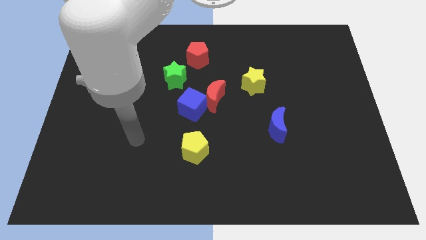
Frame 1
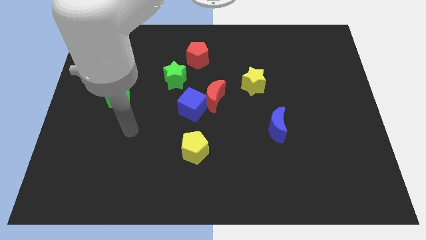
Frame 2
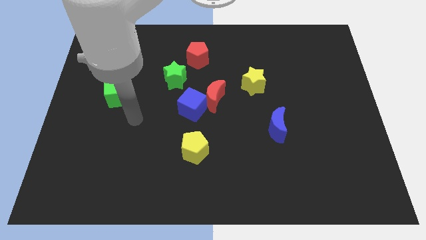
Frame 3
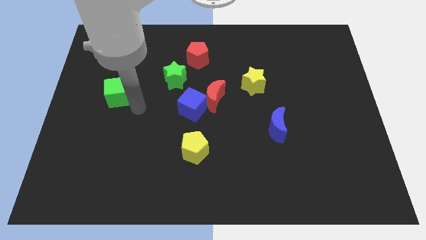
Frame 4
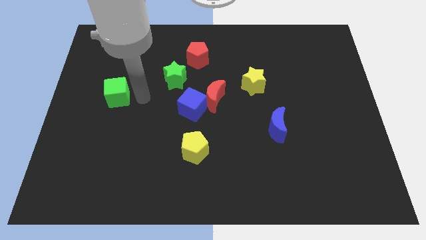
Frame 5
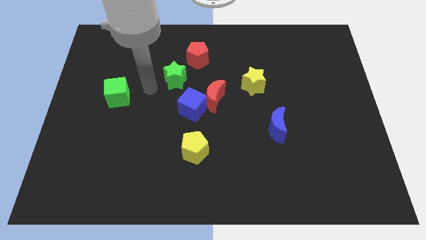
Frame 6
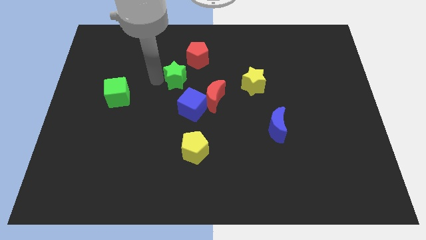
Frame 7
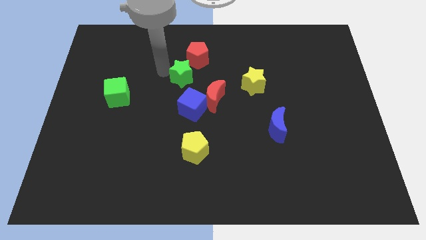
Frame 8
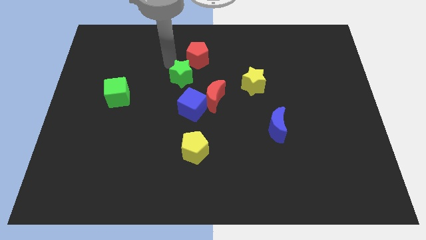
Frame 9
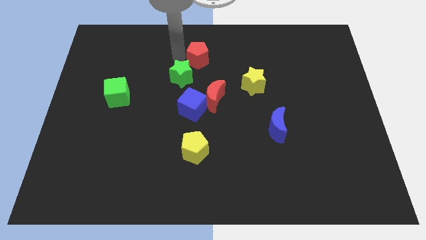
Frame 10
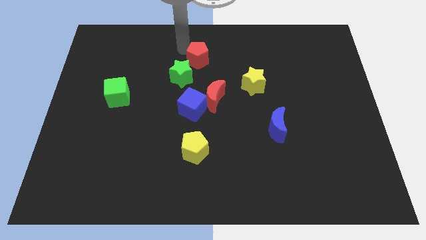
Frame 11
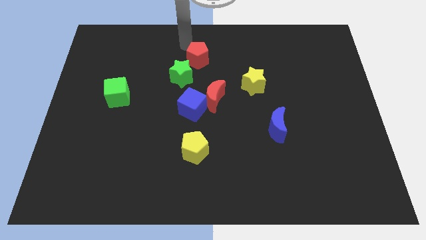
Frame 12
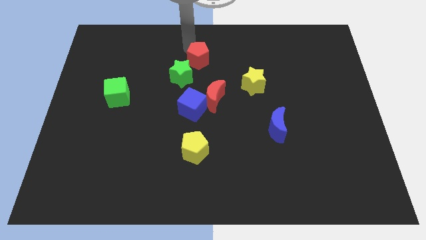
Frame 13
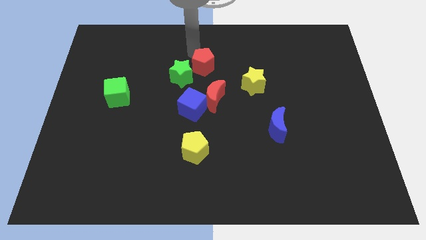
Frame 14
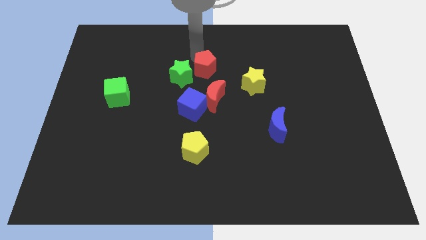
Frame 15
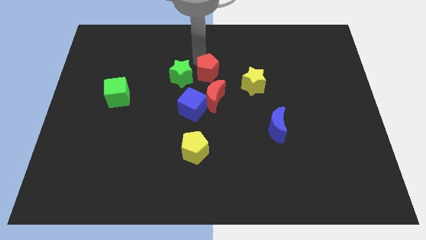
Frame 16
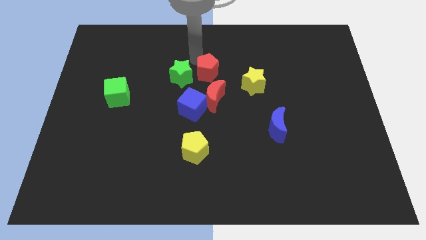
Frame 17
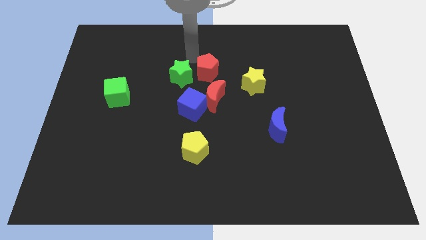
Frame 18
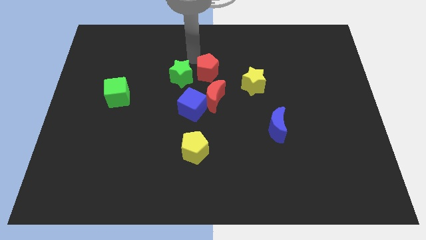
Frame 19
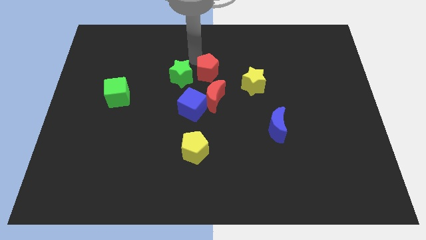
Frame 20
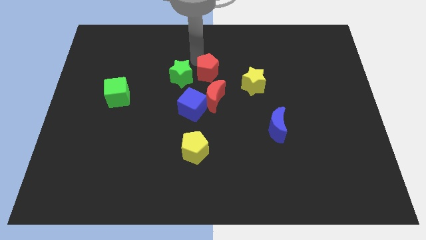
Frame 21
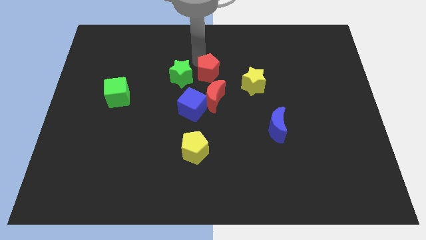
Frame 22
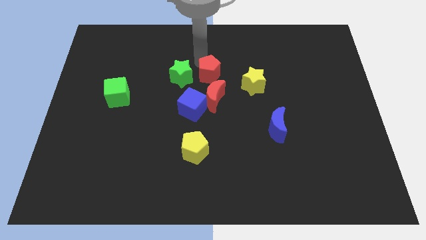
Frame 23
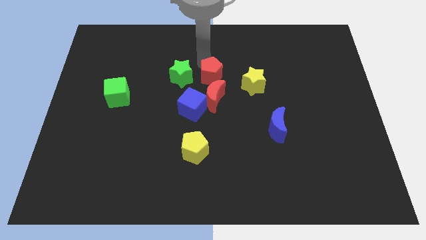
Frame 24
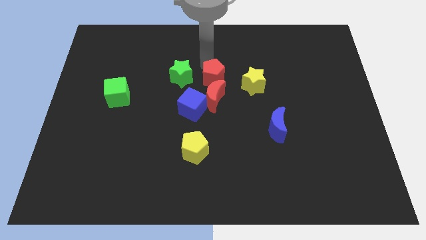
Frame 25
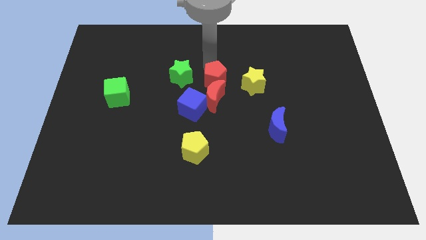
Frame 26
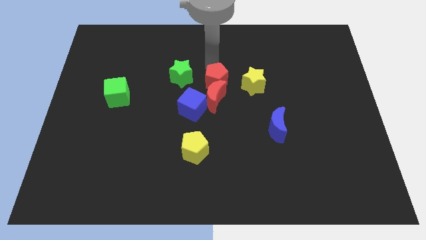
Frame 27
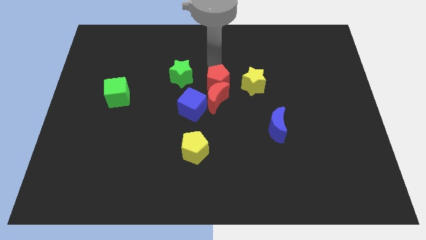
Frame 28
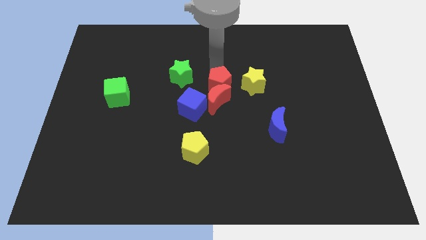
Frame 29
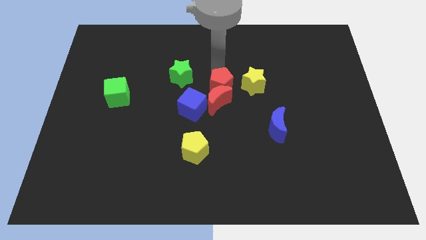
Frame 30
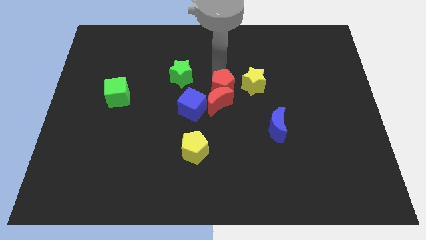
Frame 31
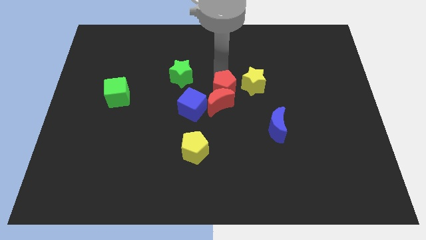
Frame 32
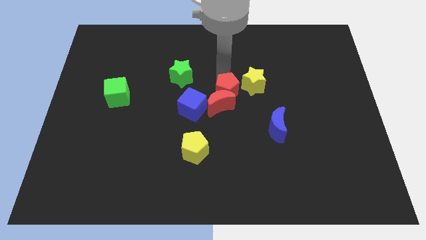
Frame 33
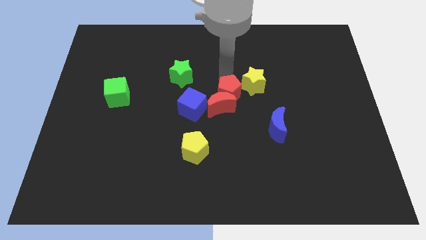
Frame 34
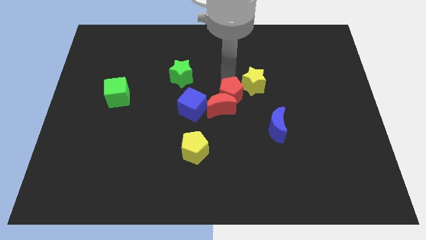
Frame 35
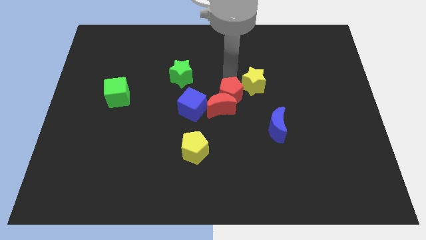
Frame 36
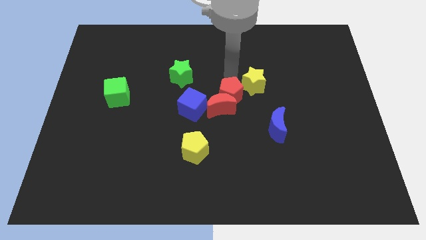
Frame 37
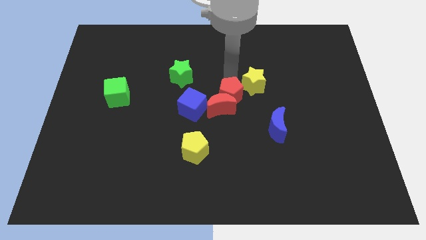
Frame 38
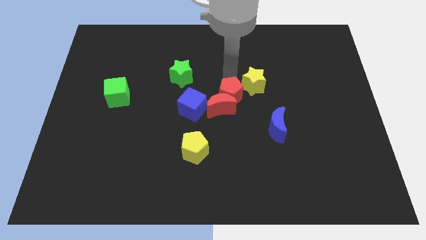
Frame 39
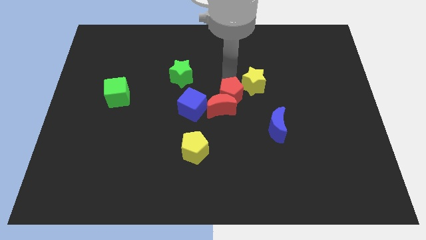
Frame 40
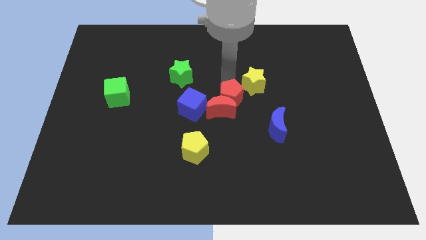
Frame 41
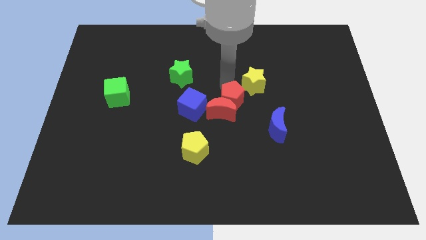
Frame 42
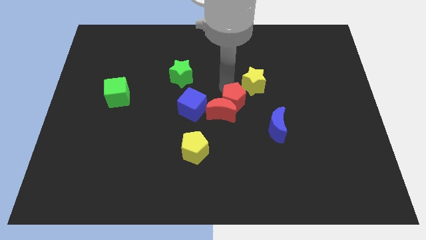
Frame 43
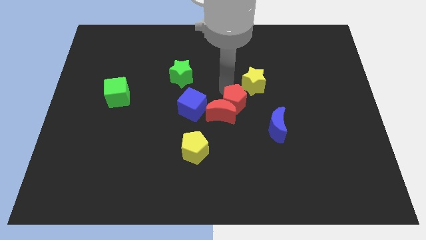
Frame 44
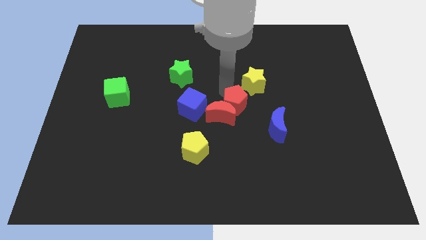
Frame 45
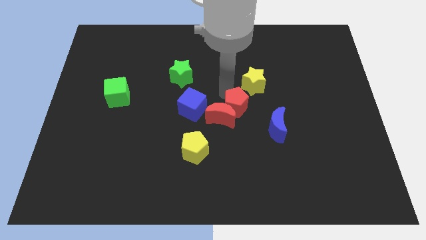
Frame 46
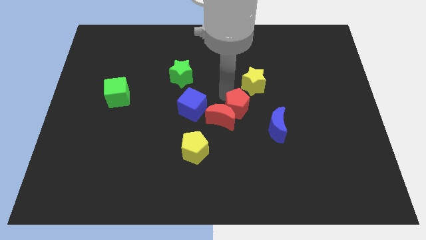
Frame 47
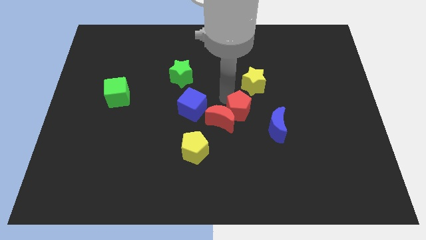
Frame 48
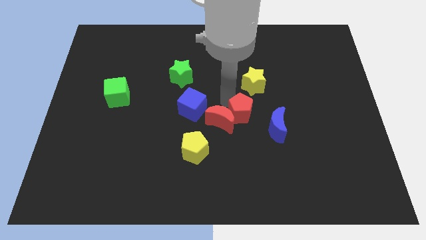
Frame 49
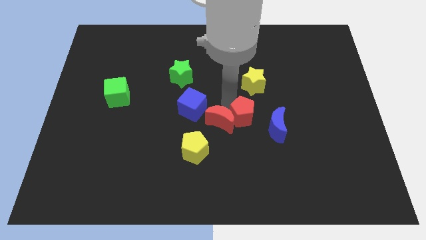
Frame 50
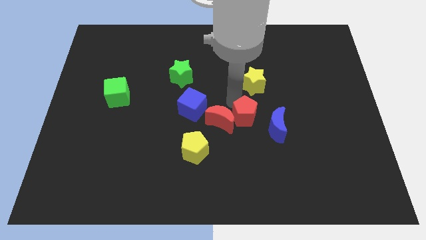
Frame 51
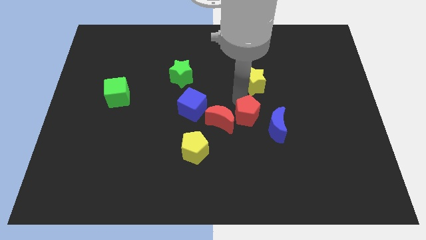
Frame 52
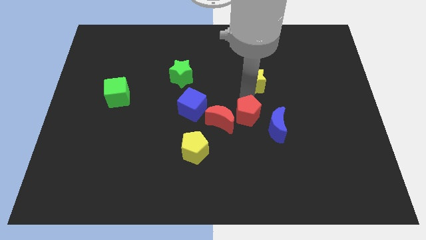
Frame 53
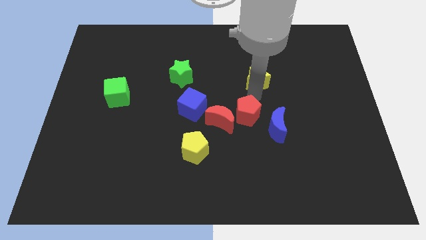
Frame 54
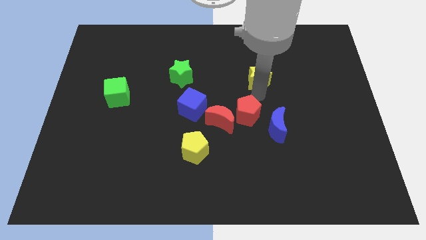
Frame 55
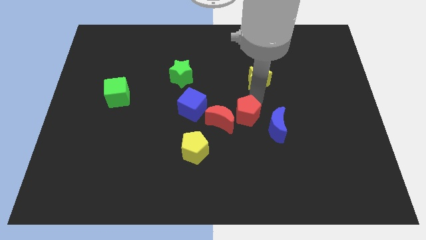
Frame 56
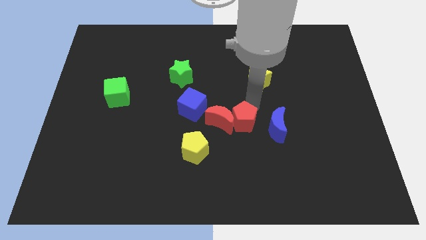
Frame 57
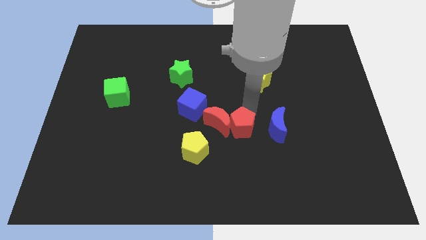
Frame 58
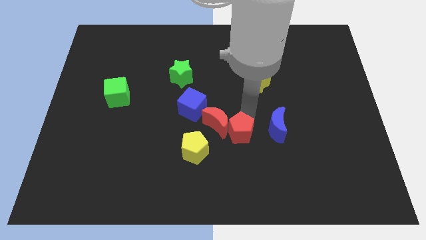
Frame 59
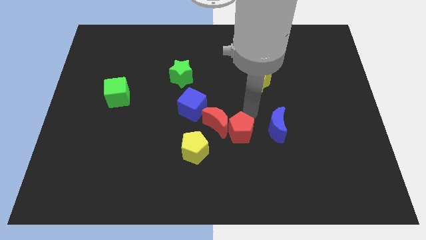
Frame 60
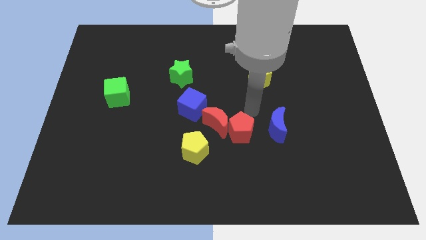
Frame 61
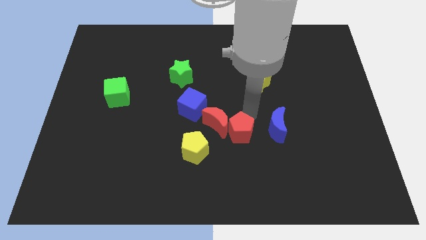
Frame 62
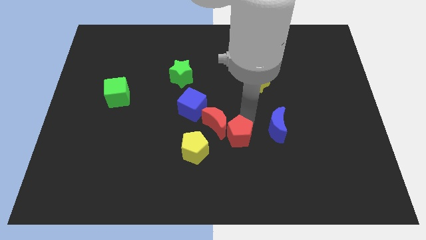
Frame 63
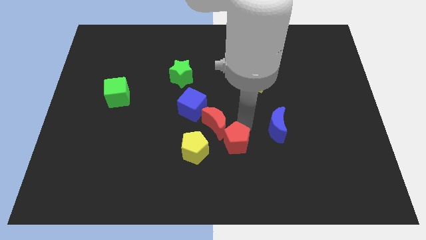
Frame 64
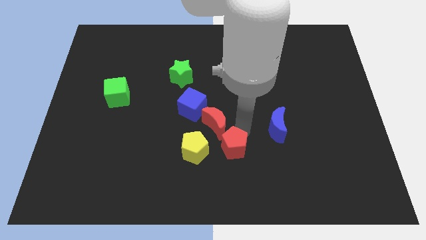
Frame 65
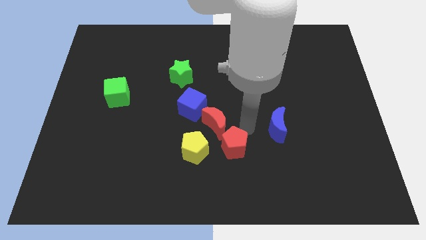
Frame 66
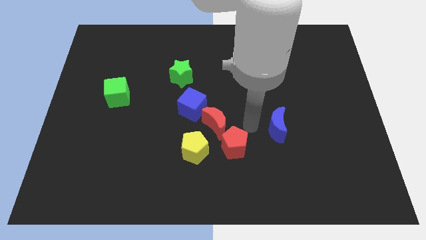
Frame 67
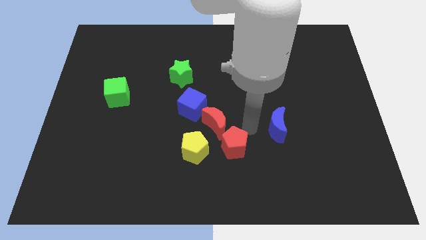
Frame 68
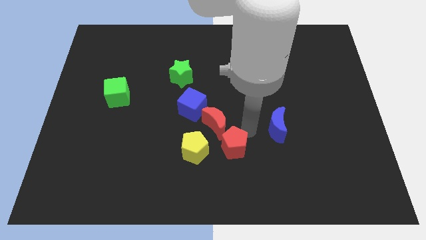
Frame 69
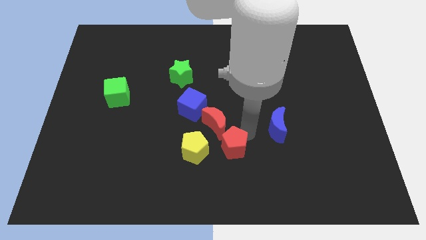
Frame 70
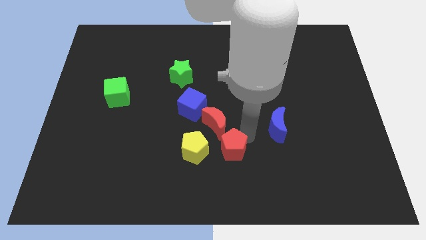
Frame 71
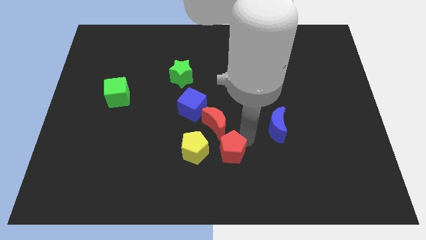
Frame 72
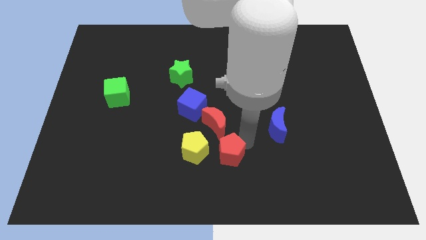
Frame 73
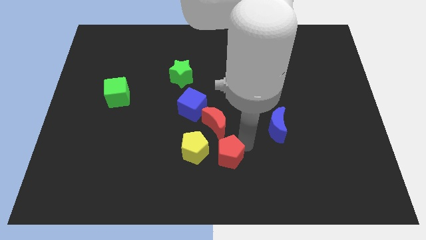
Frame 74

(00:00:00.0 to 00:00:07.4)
slide the red pentagon to the bottom
